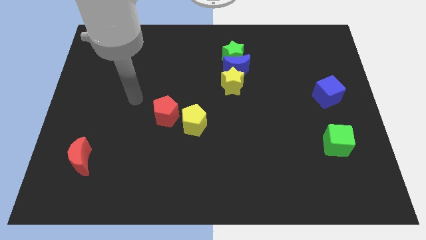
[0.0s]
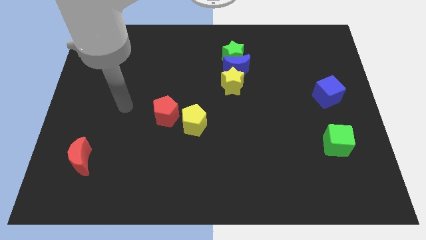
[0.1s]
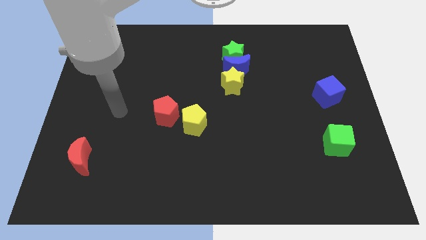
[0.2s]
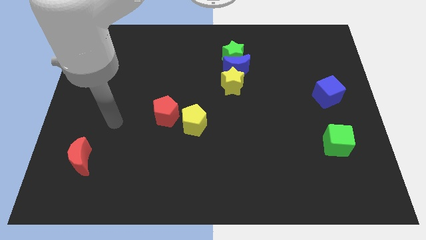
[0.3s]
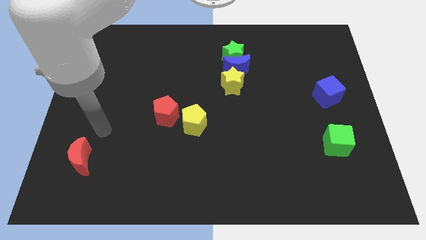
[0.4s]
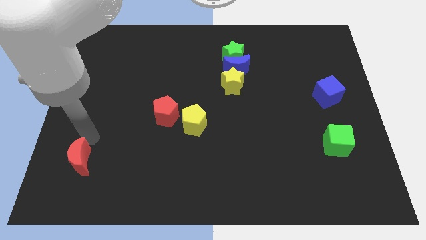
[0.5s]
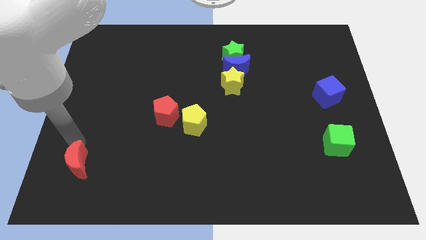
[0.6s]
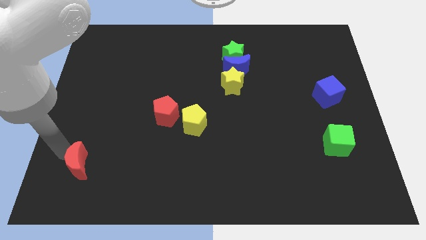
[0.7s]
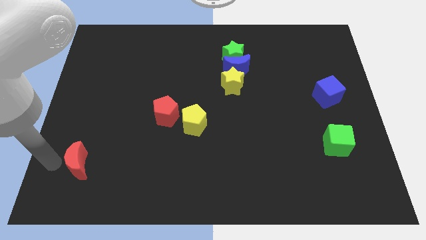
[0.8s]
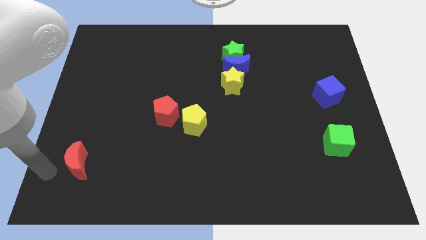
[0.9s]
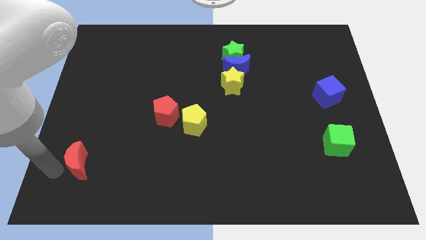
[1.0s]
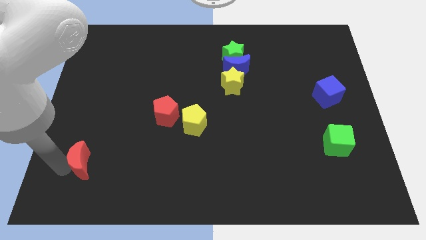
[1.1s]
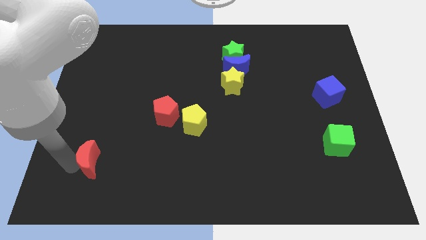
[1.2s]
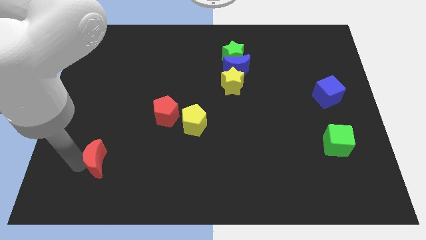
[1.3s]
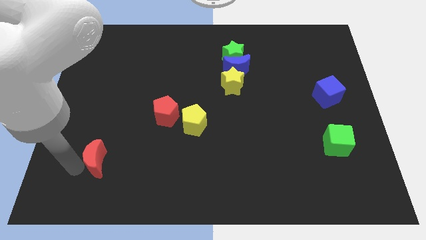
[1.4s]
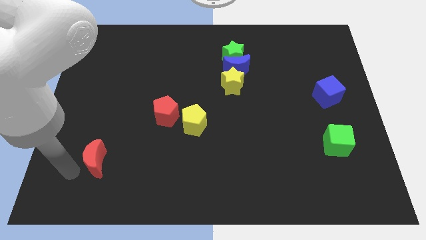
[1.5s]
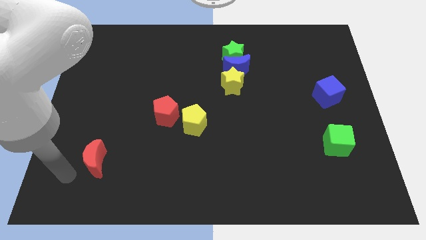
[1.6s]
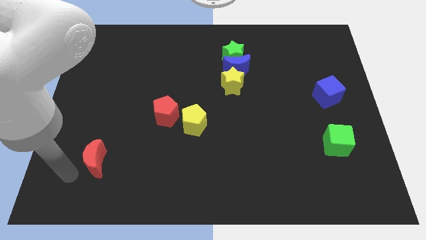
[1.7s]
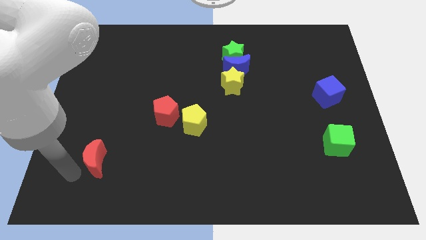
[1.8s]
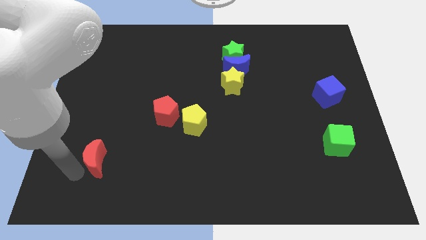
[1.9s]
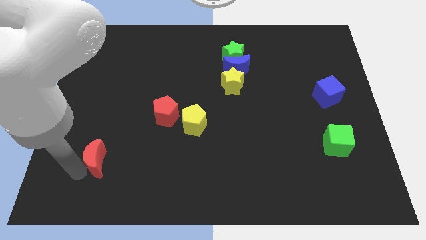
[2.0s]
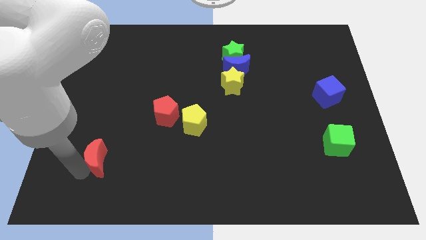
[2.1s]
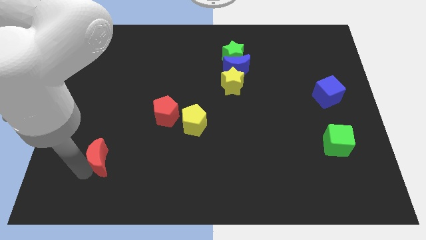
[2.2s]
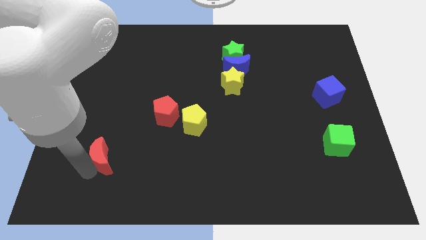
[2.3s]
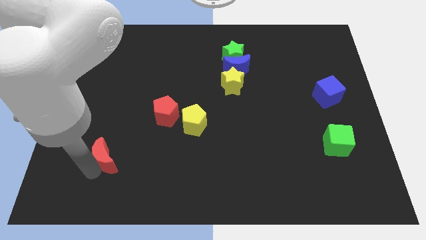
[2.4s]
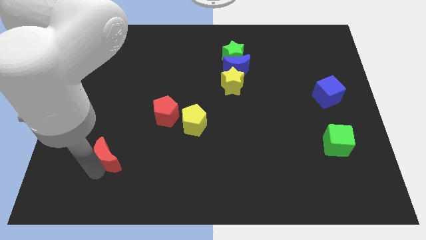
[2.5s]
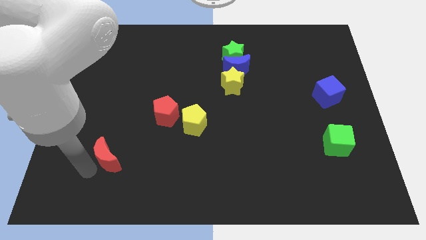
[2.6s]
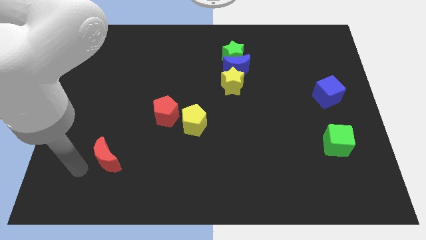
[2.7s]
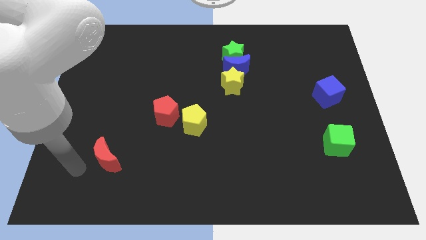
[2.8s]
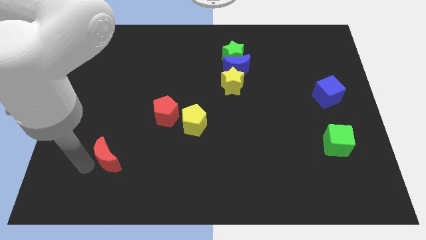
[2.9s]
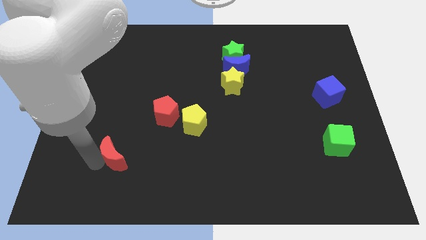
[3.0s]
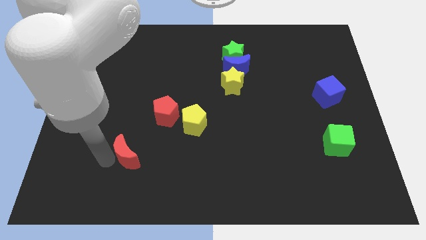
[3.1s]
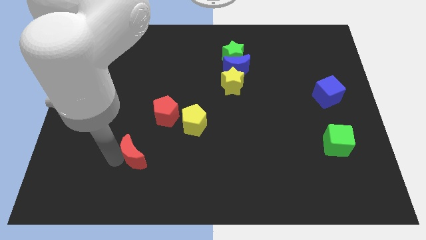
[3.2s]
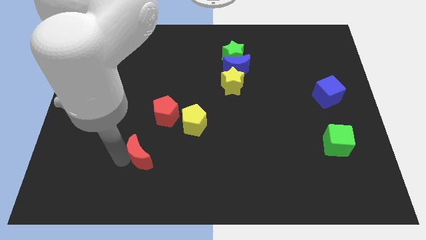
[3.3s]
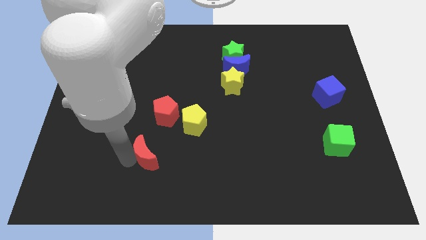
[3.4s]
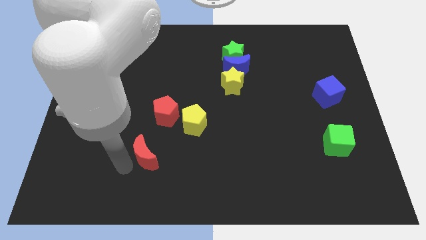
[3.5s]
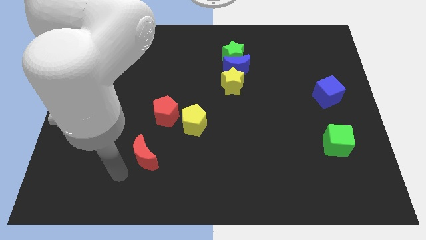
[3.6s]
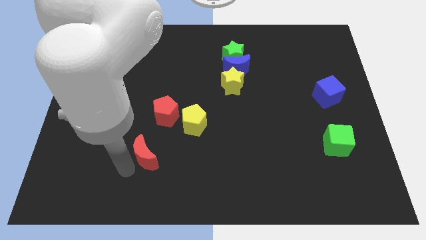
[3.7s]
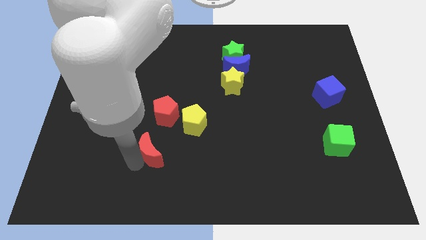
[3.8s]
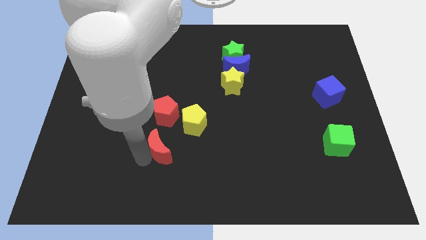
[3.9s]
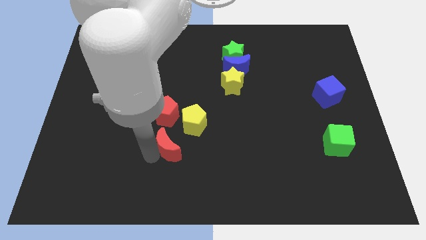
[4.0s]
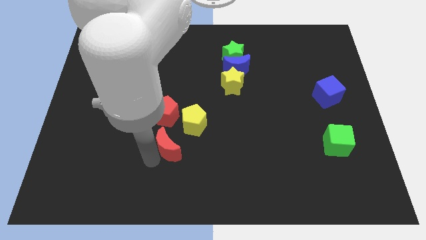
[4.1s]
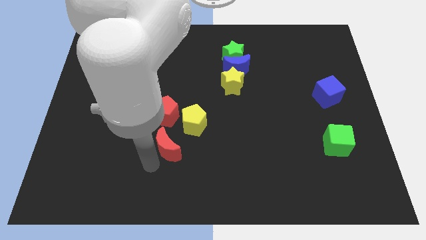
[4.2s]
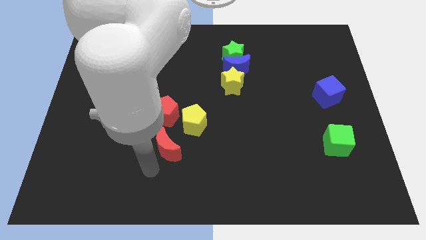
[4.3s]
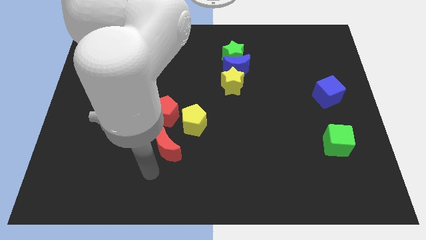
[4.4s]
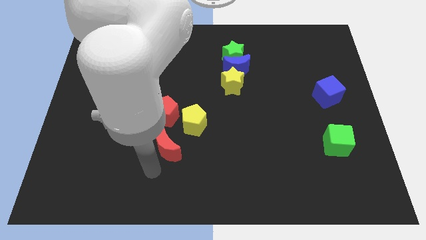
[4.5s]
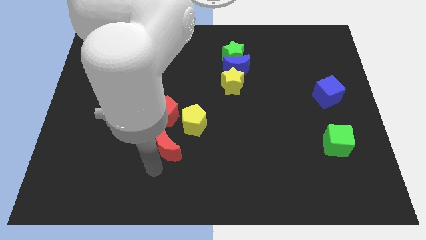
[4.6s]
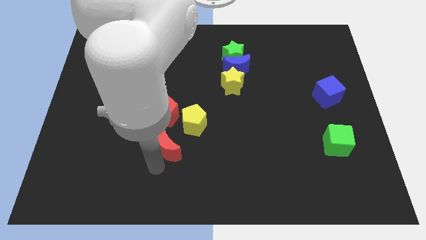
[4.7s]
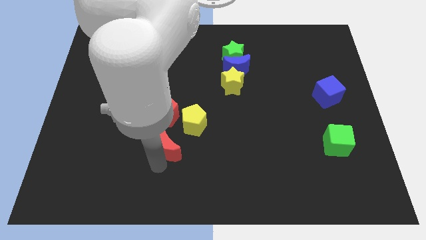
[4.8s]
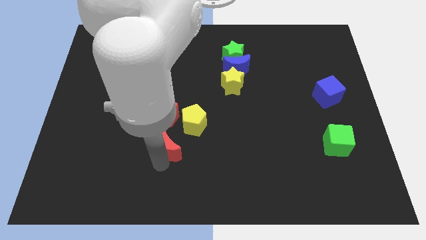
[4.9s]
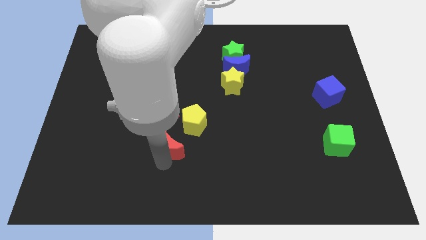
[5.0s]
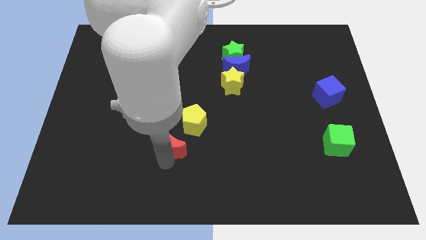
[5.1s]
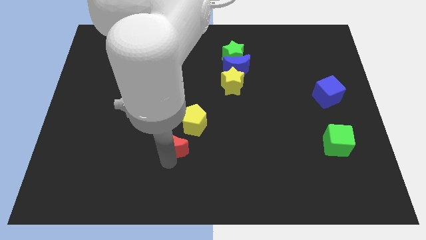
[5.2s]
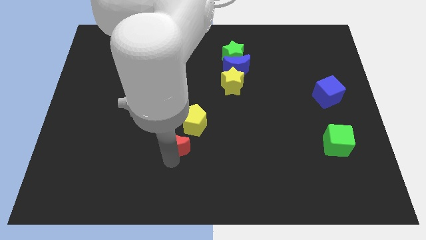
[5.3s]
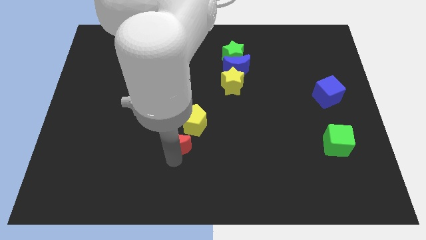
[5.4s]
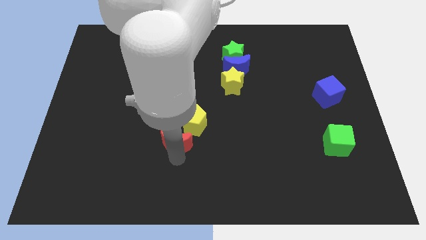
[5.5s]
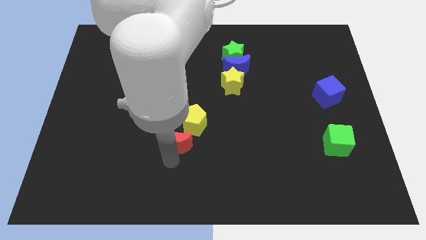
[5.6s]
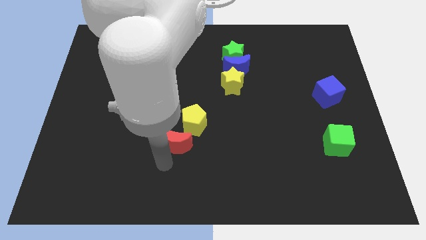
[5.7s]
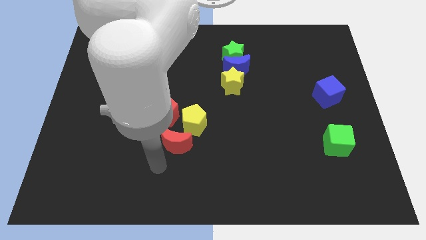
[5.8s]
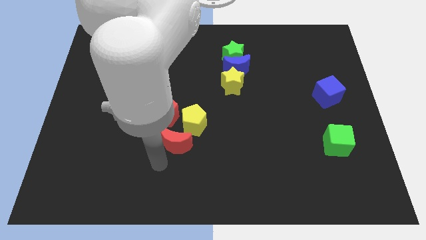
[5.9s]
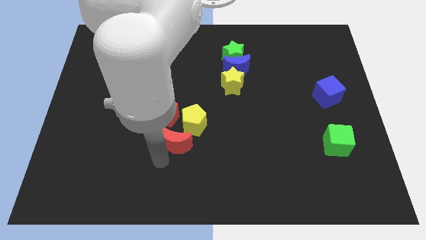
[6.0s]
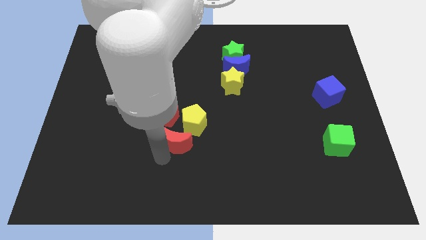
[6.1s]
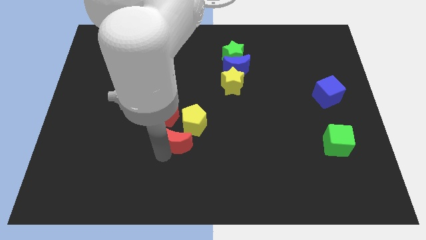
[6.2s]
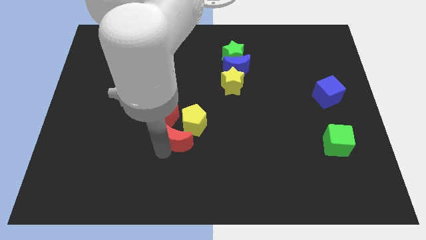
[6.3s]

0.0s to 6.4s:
slide the red moon close to the yellow pentagon
